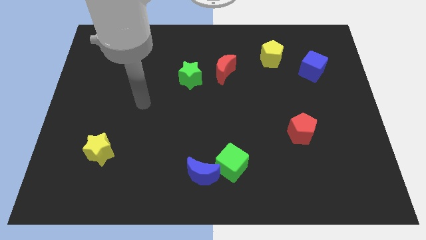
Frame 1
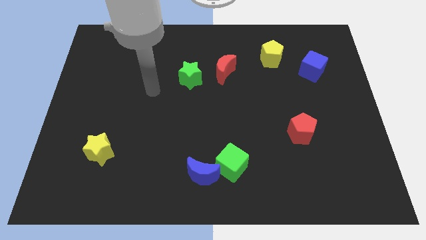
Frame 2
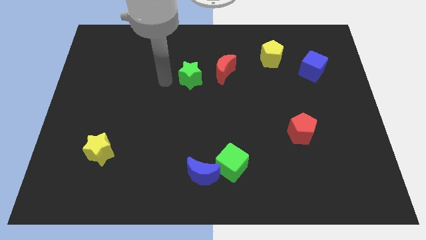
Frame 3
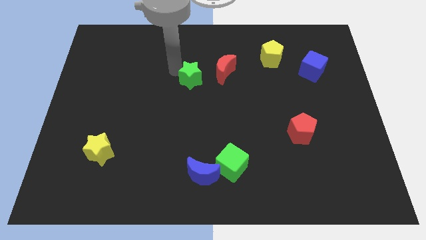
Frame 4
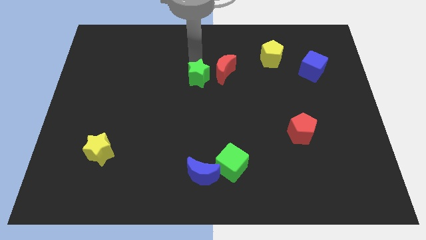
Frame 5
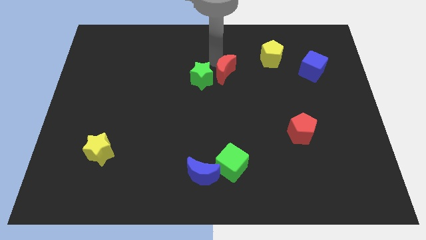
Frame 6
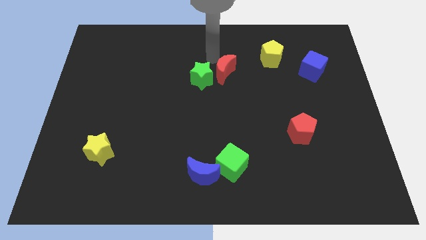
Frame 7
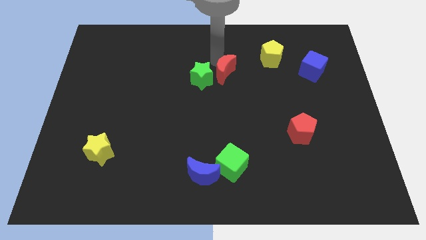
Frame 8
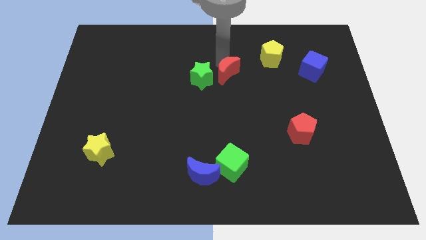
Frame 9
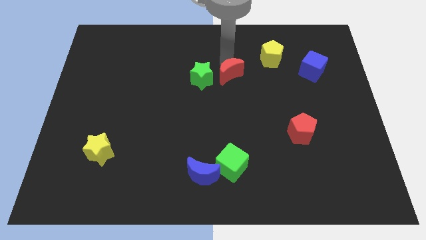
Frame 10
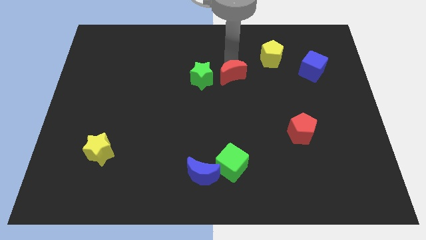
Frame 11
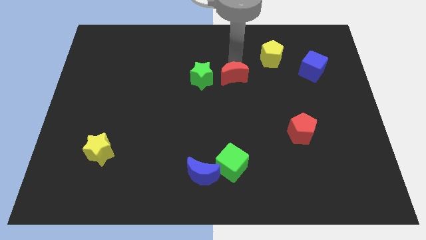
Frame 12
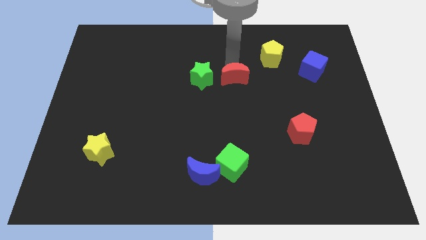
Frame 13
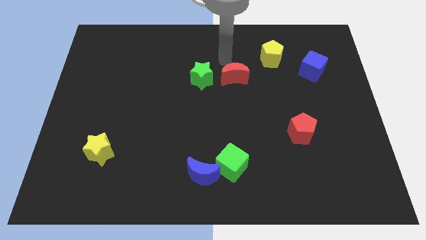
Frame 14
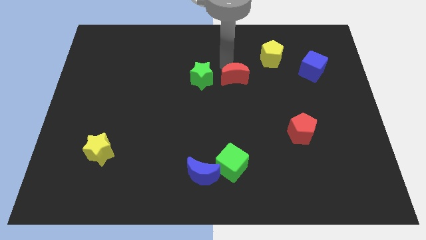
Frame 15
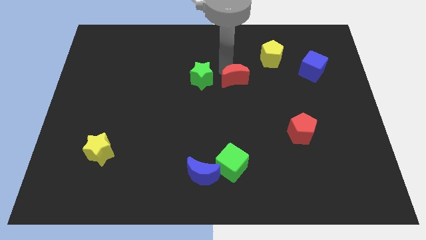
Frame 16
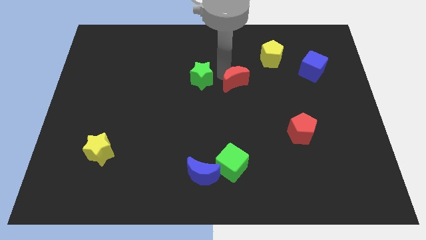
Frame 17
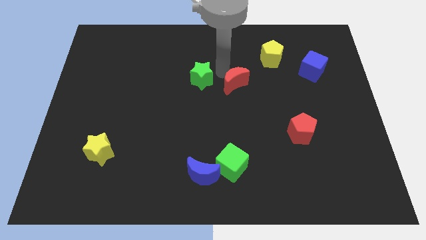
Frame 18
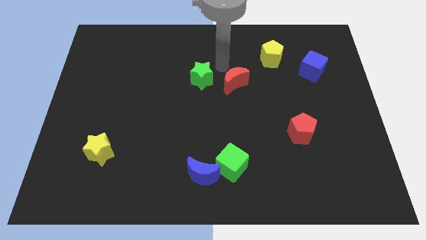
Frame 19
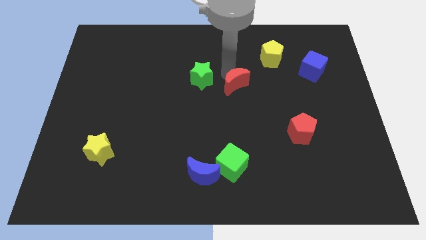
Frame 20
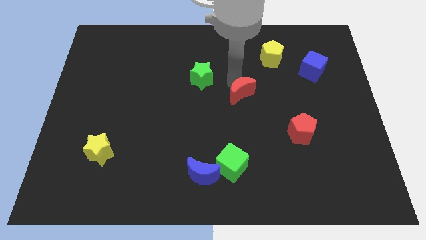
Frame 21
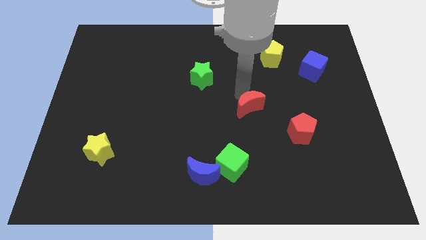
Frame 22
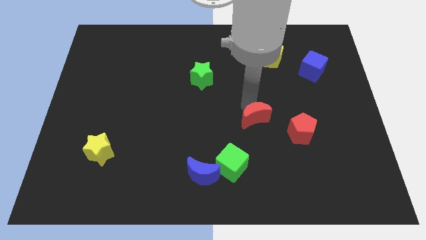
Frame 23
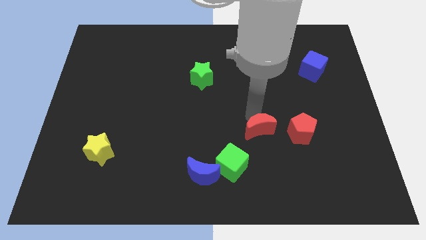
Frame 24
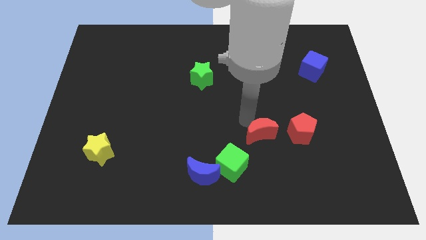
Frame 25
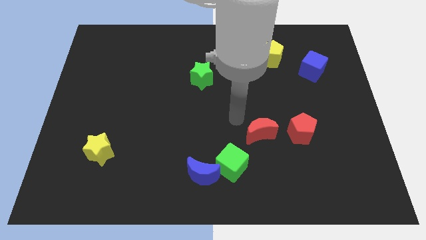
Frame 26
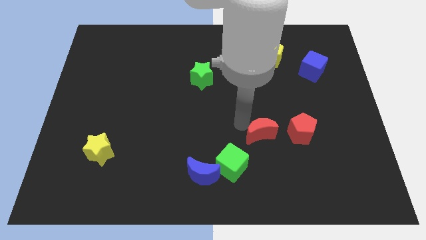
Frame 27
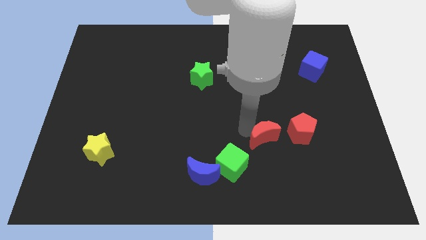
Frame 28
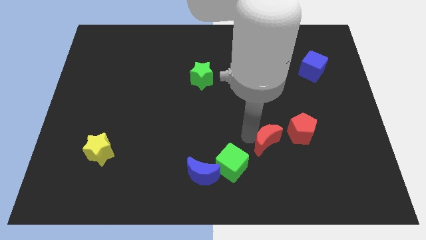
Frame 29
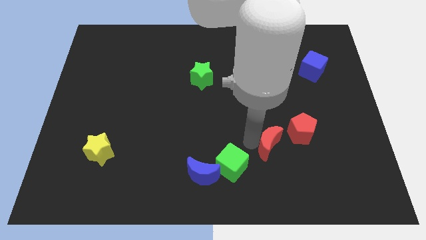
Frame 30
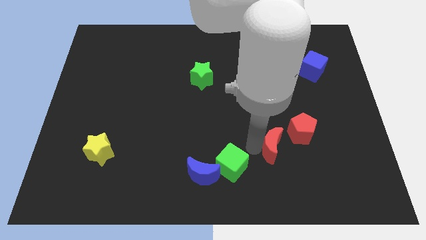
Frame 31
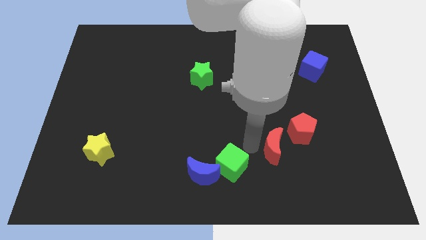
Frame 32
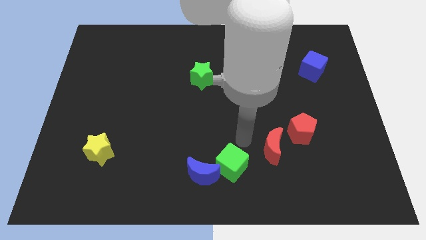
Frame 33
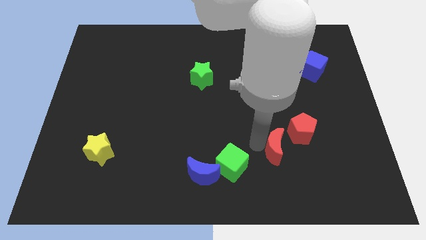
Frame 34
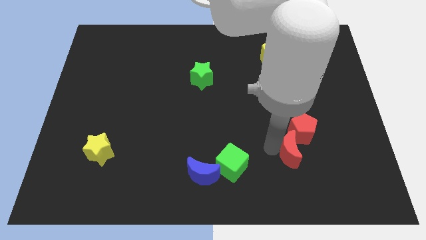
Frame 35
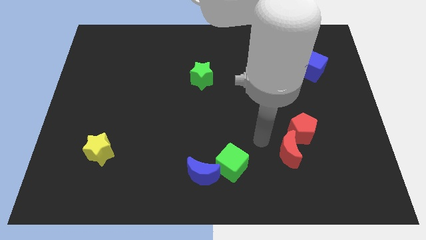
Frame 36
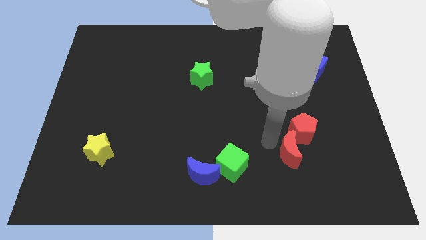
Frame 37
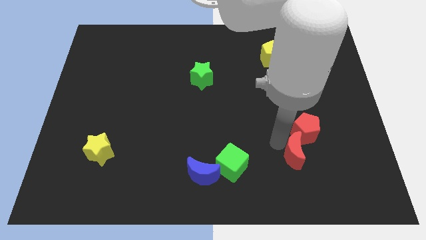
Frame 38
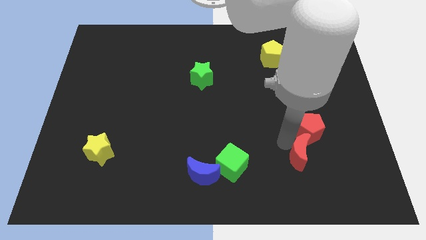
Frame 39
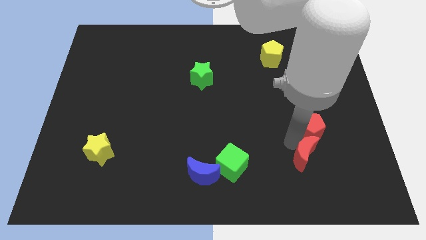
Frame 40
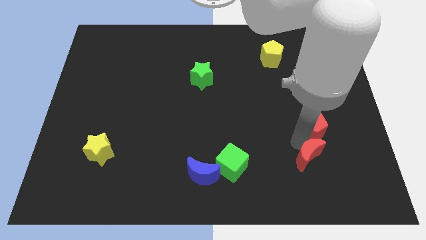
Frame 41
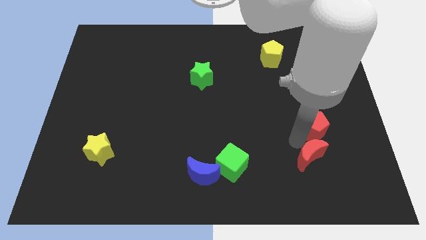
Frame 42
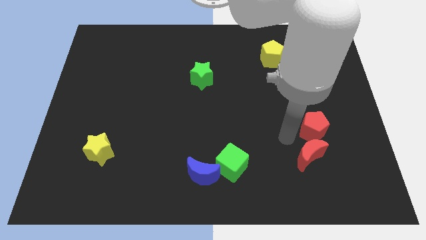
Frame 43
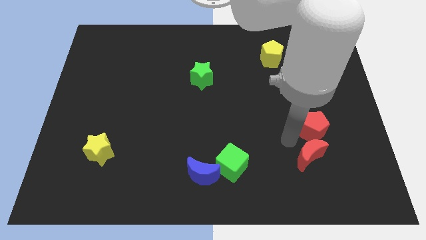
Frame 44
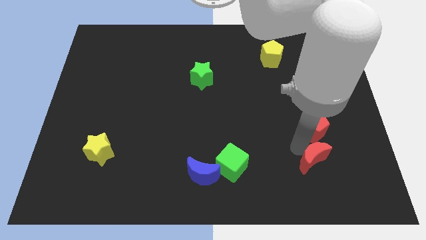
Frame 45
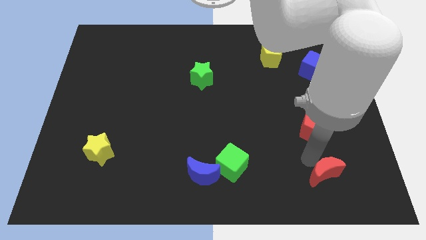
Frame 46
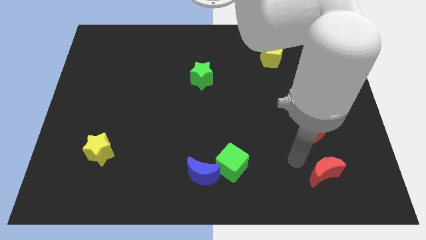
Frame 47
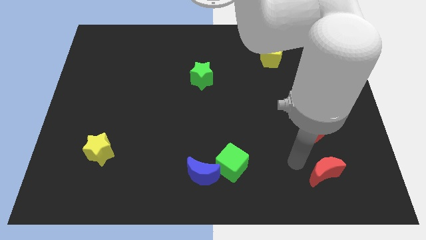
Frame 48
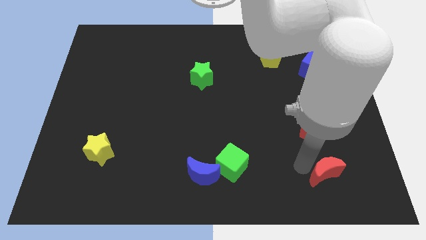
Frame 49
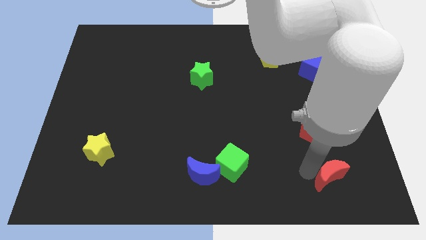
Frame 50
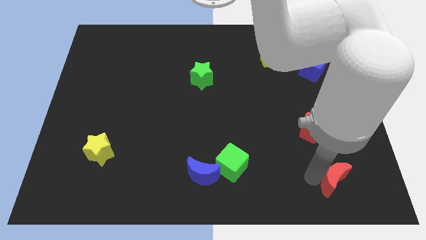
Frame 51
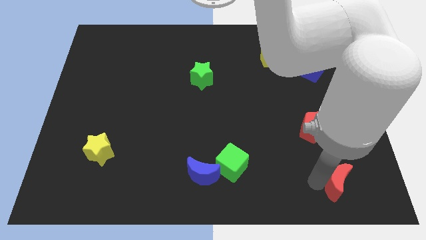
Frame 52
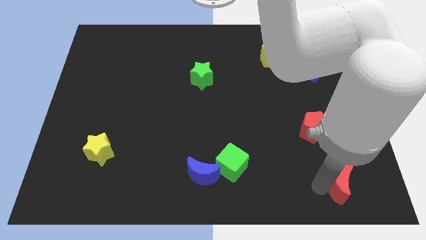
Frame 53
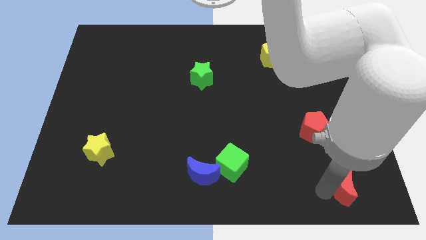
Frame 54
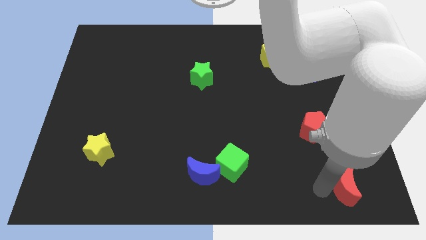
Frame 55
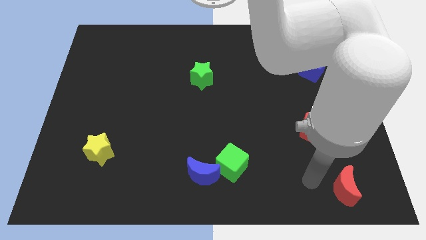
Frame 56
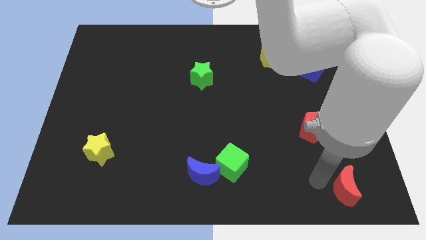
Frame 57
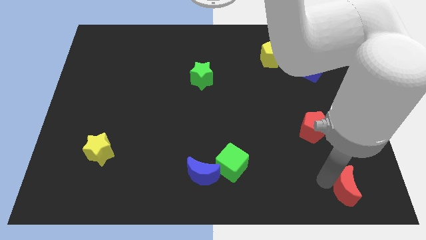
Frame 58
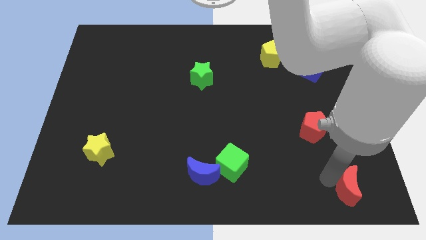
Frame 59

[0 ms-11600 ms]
push the red moon to the bottom right corner

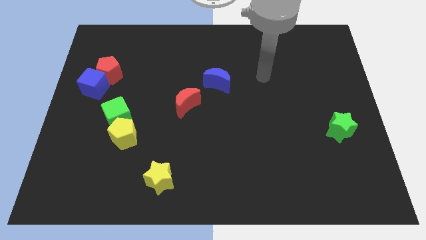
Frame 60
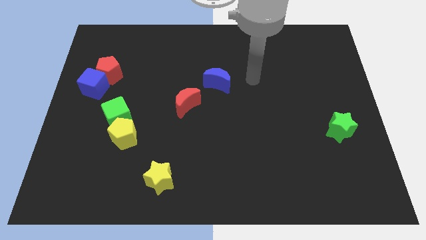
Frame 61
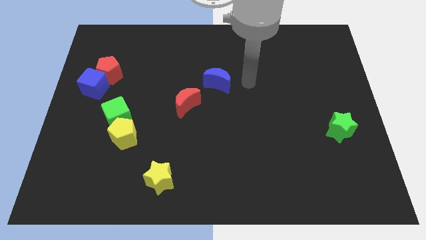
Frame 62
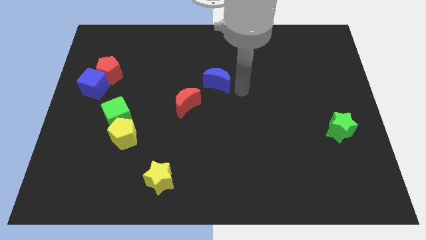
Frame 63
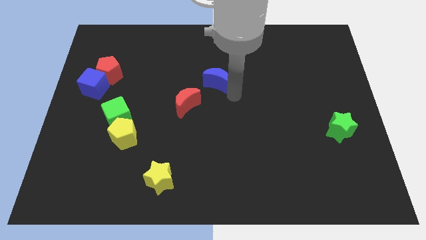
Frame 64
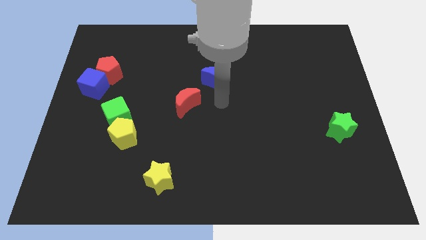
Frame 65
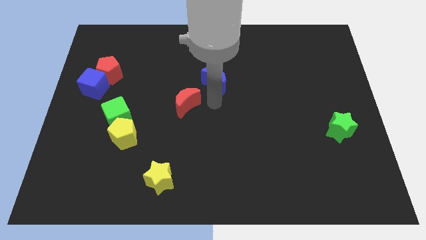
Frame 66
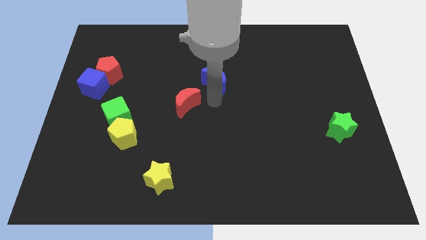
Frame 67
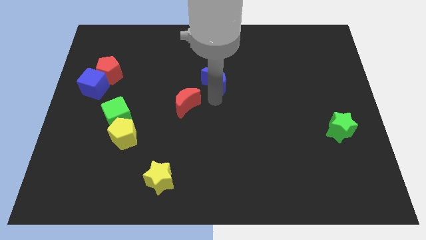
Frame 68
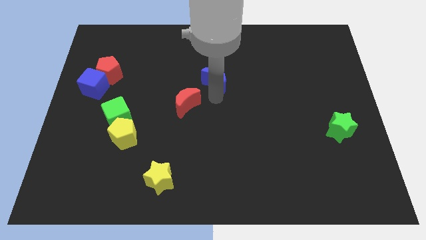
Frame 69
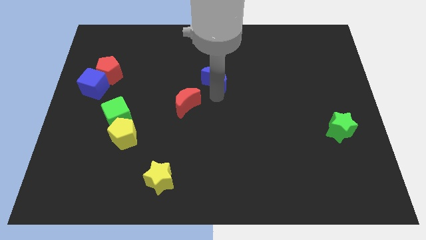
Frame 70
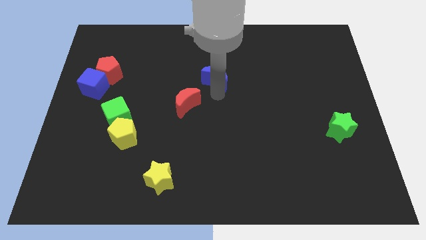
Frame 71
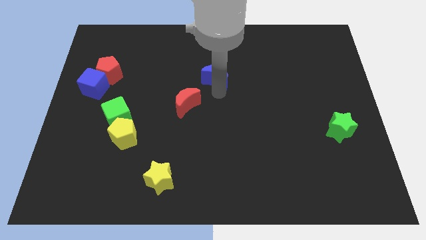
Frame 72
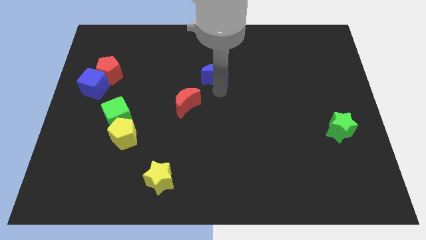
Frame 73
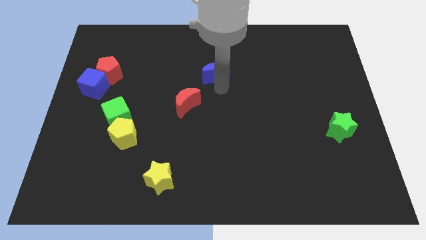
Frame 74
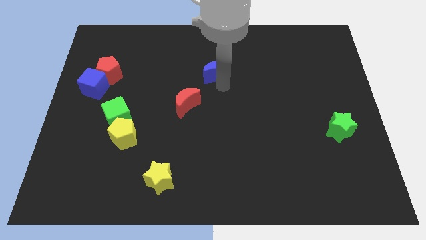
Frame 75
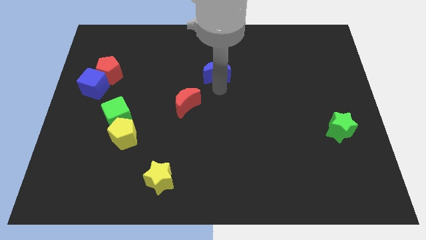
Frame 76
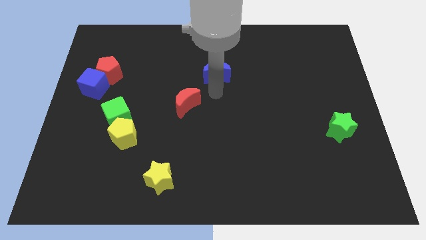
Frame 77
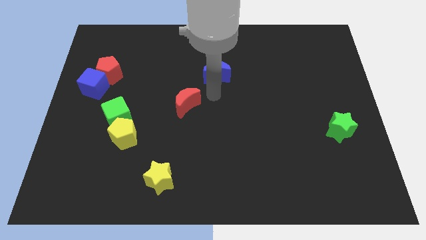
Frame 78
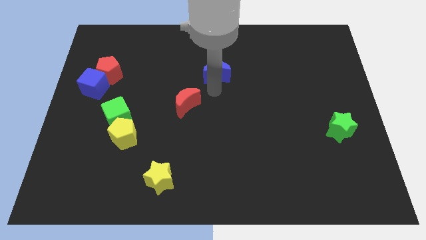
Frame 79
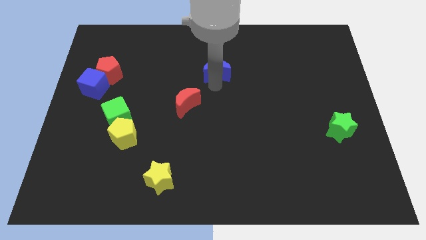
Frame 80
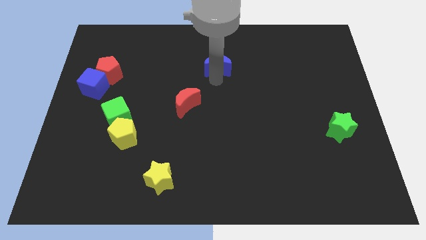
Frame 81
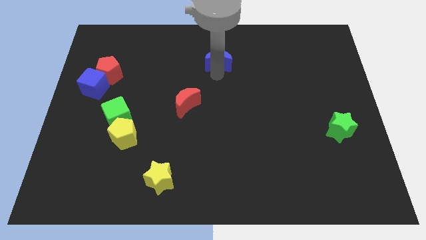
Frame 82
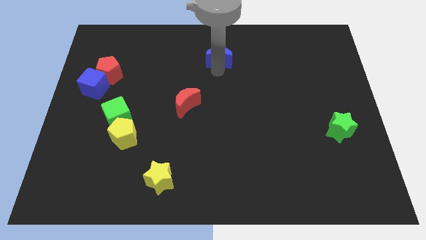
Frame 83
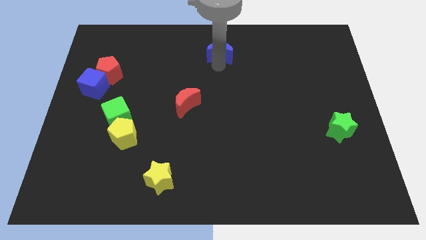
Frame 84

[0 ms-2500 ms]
move the blue moon to the top side
